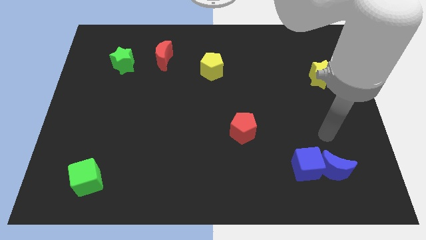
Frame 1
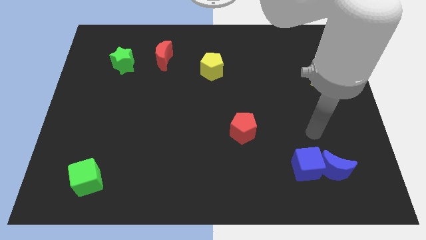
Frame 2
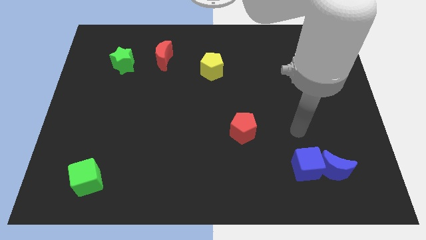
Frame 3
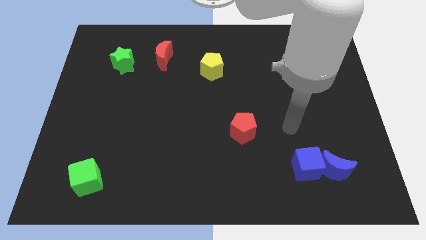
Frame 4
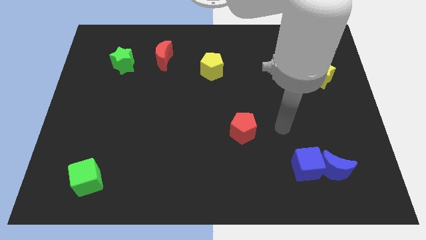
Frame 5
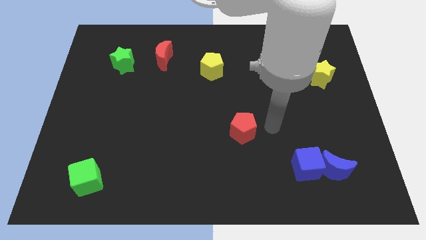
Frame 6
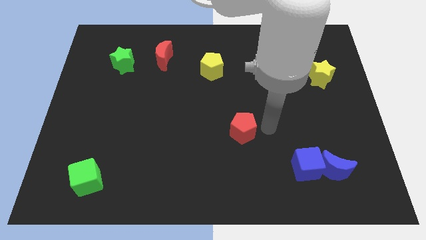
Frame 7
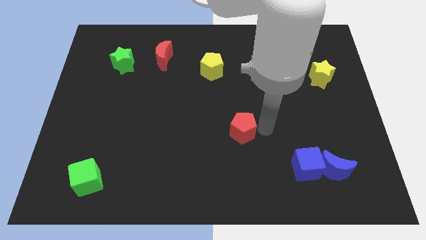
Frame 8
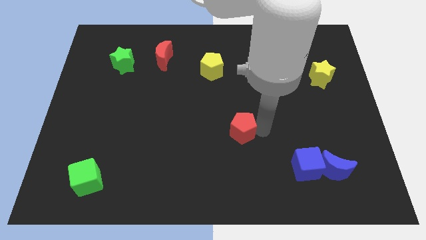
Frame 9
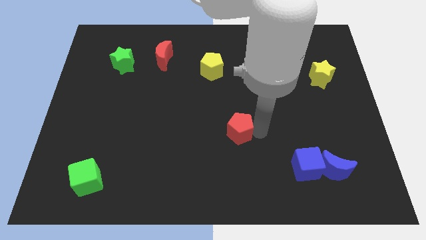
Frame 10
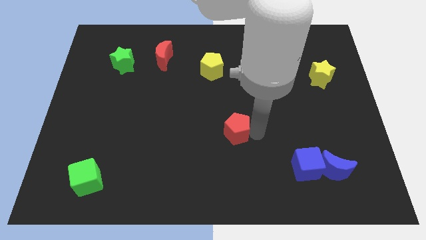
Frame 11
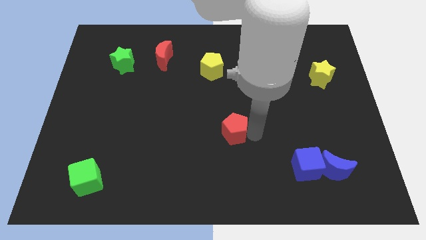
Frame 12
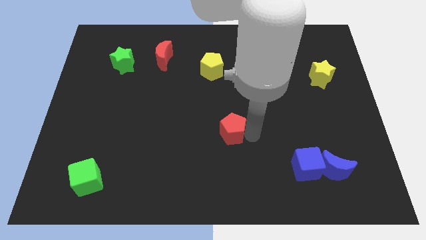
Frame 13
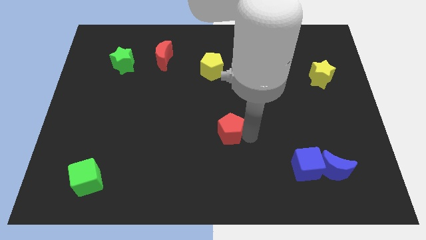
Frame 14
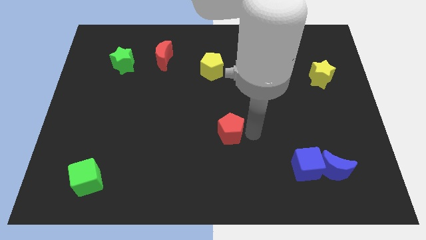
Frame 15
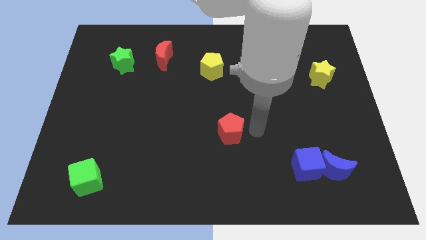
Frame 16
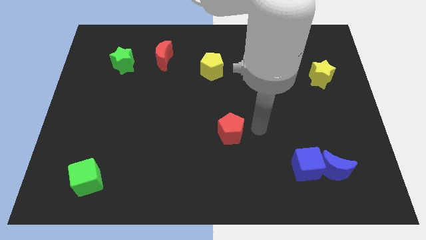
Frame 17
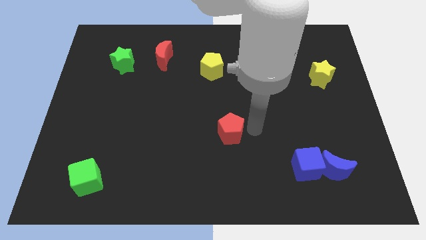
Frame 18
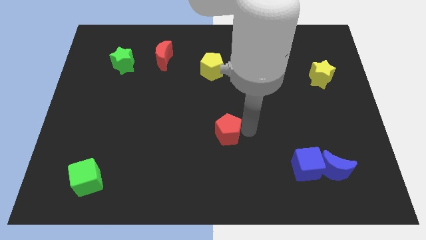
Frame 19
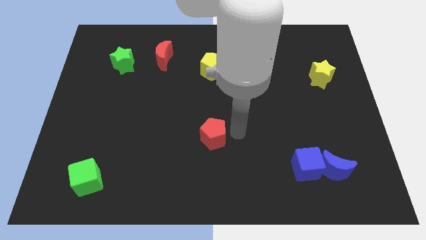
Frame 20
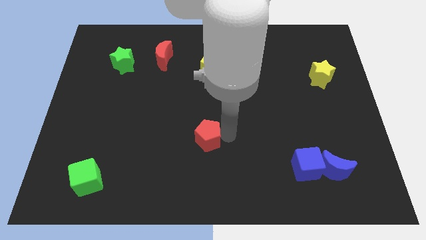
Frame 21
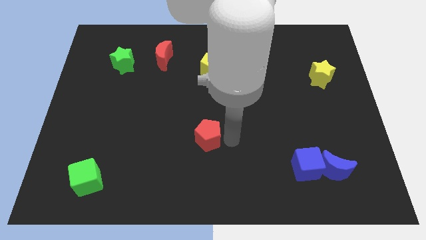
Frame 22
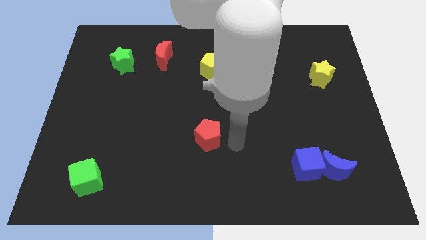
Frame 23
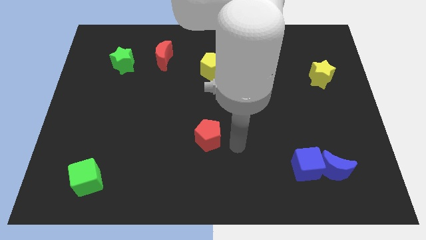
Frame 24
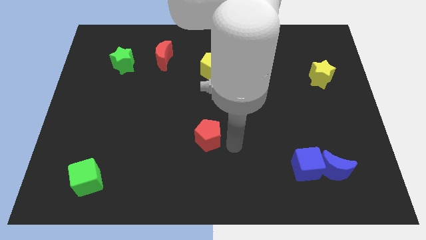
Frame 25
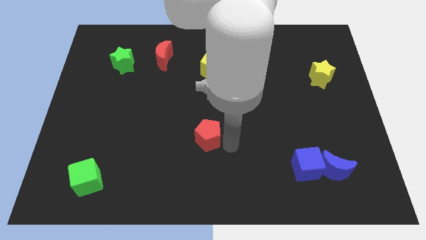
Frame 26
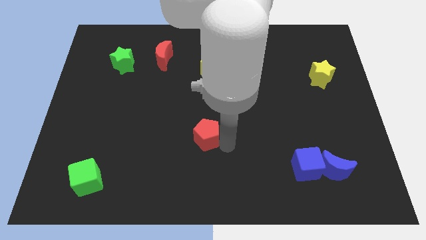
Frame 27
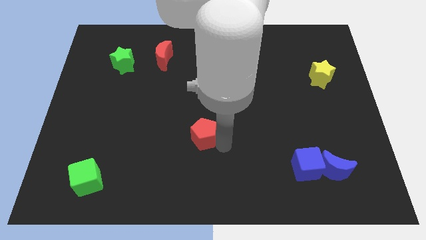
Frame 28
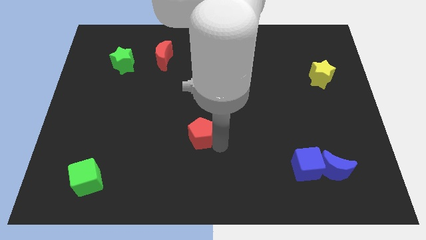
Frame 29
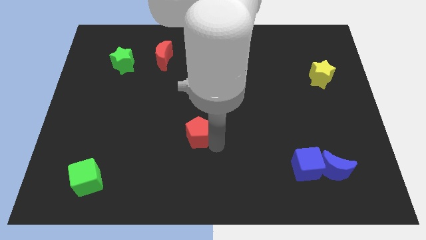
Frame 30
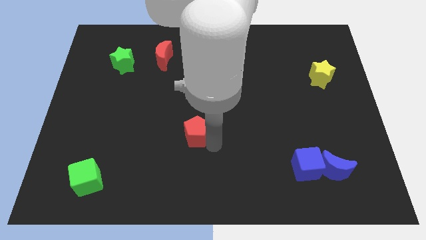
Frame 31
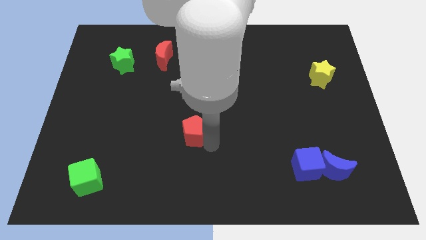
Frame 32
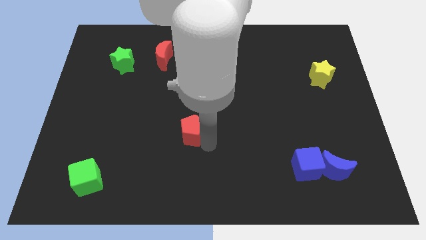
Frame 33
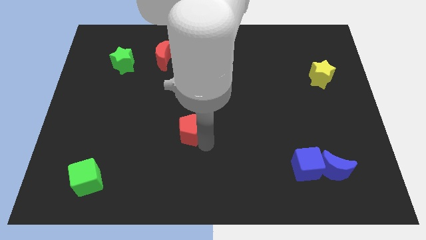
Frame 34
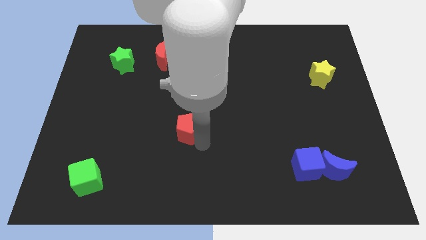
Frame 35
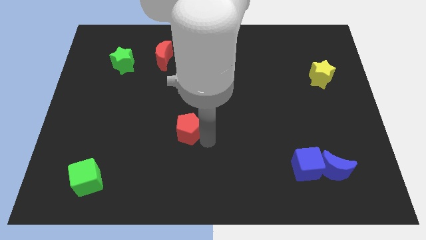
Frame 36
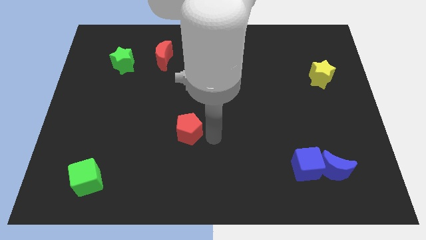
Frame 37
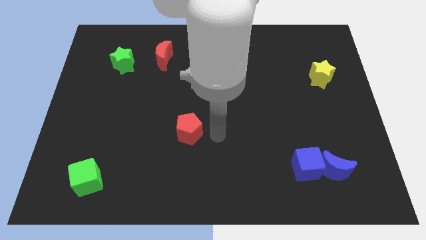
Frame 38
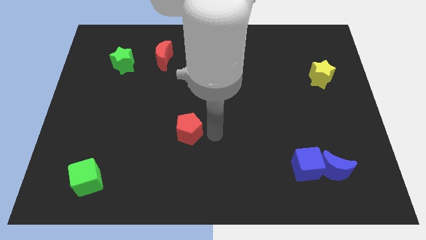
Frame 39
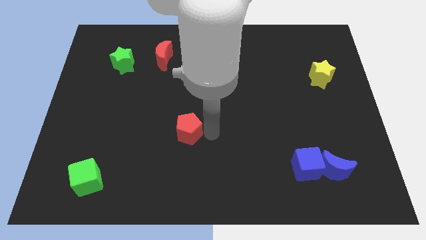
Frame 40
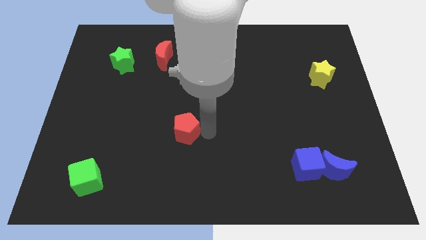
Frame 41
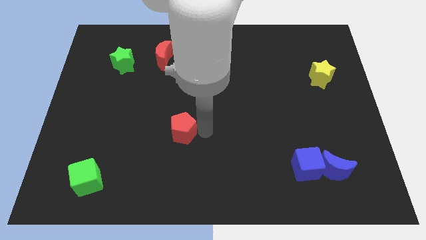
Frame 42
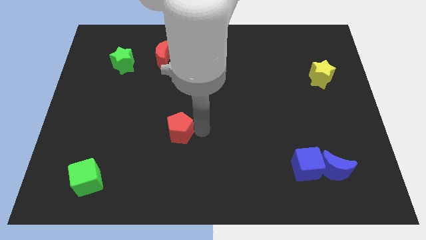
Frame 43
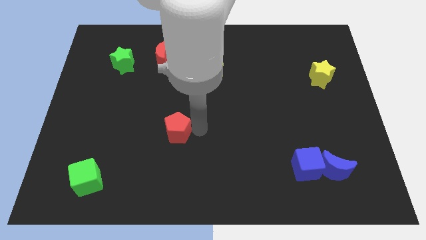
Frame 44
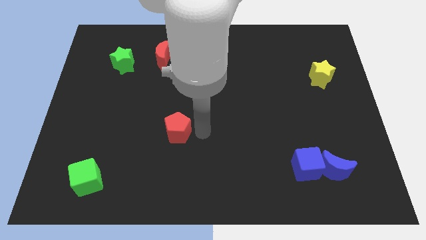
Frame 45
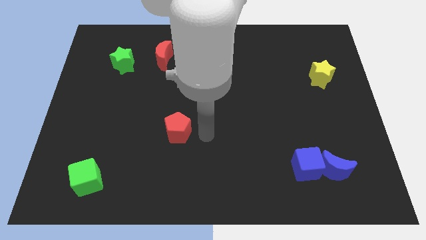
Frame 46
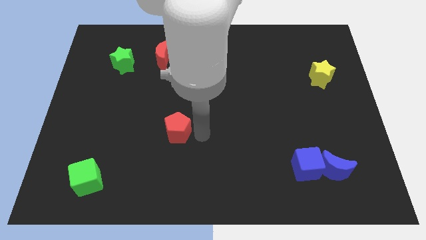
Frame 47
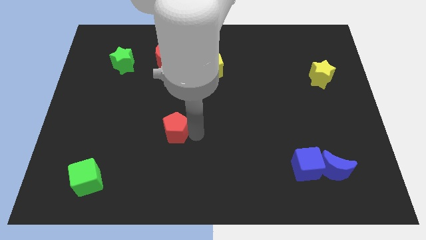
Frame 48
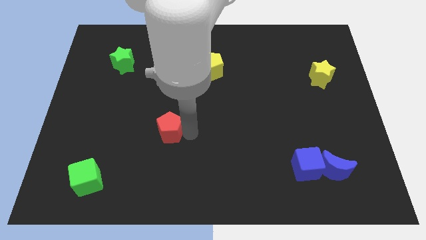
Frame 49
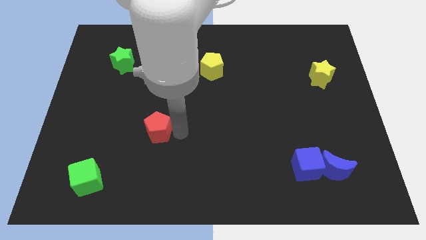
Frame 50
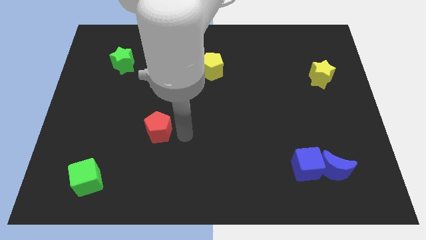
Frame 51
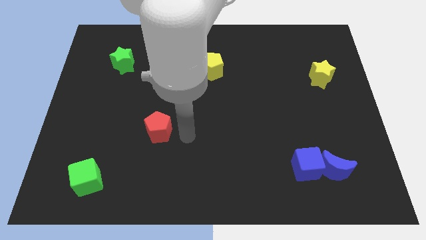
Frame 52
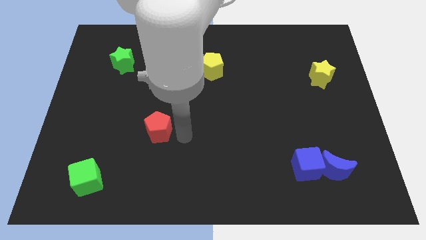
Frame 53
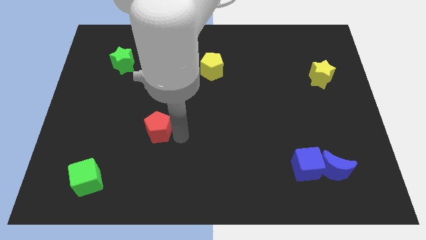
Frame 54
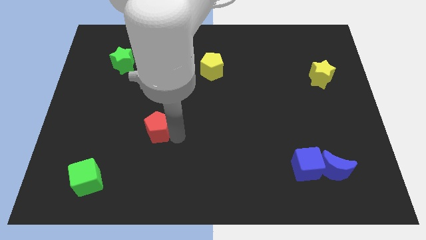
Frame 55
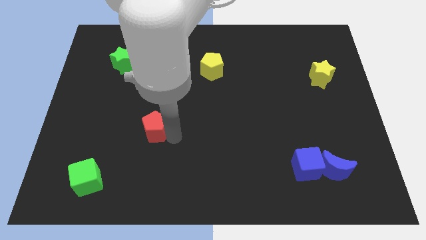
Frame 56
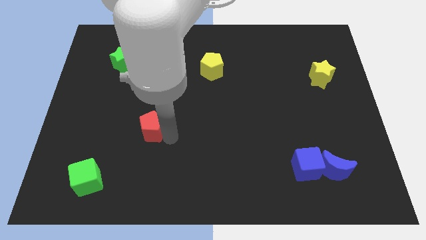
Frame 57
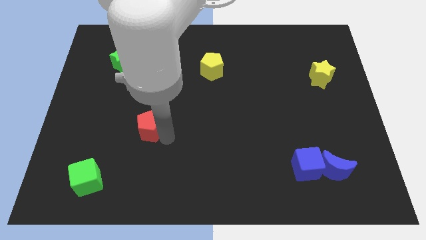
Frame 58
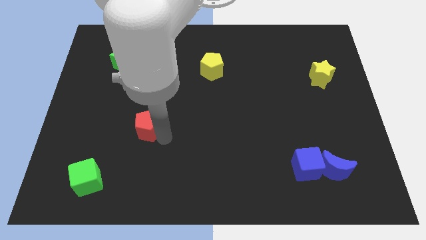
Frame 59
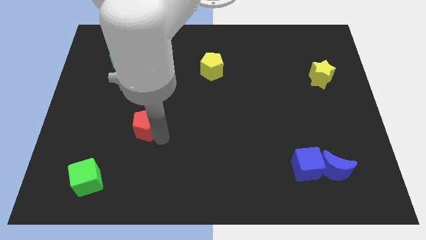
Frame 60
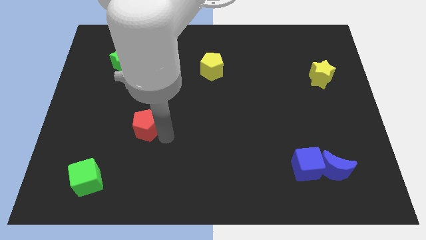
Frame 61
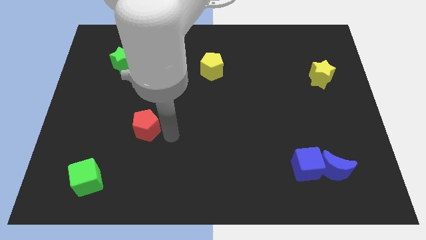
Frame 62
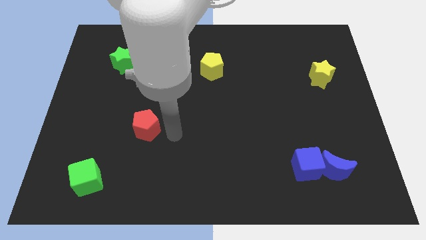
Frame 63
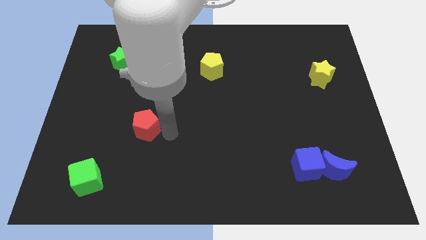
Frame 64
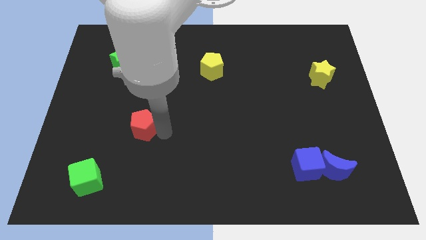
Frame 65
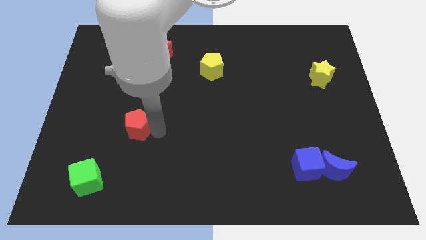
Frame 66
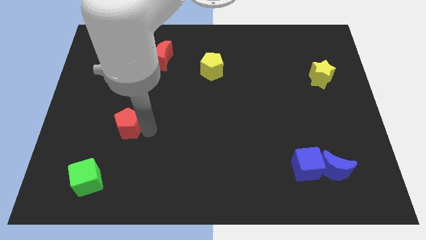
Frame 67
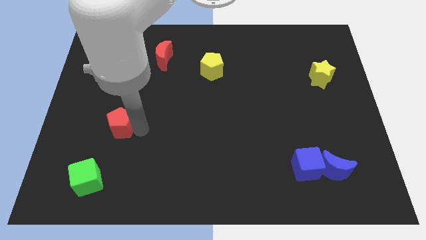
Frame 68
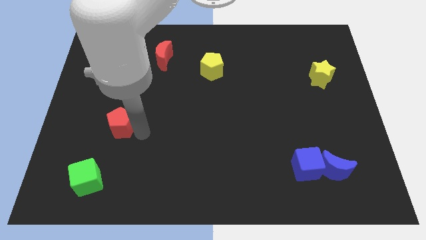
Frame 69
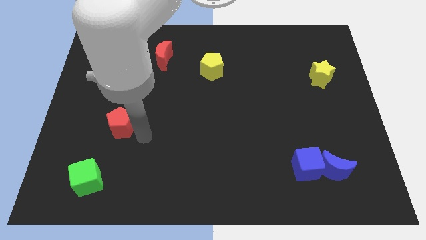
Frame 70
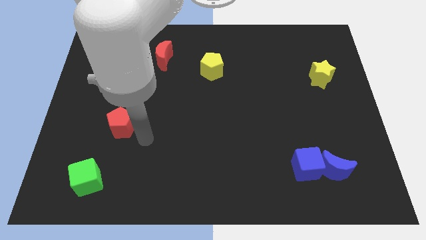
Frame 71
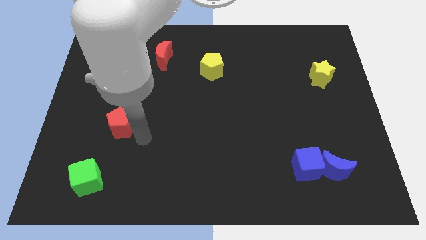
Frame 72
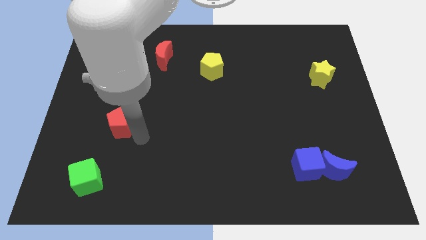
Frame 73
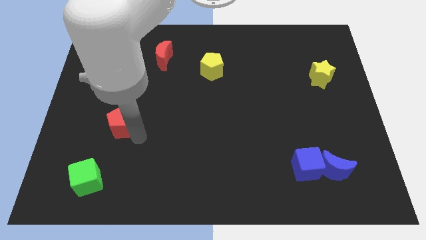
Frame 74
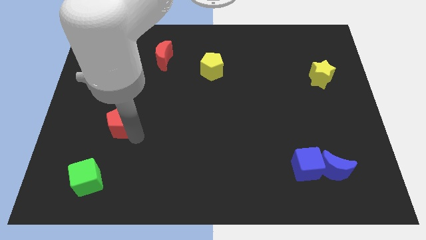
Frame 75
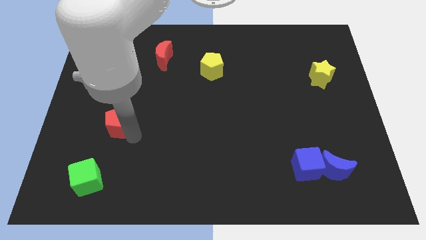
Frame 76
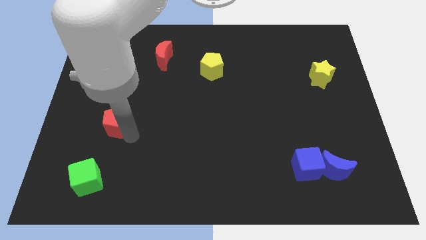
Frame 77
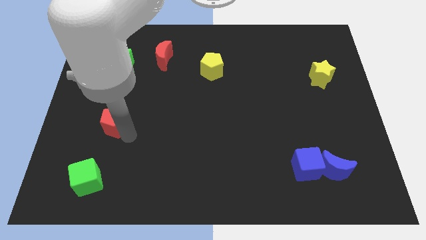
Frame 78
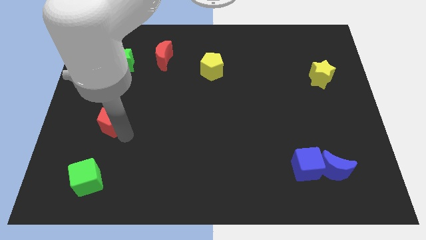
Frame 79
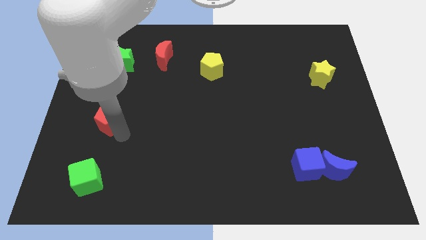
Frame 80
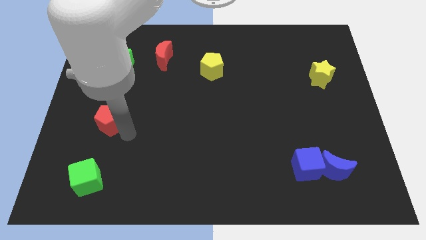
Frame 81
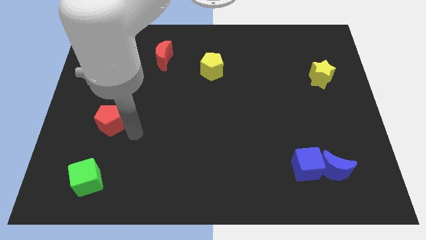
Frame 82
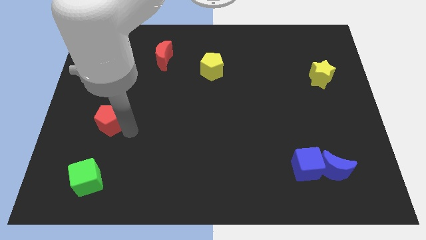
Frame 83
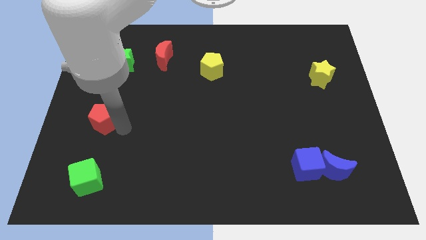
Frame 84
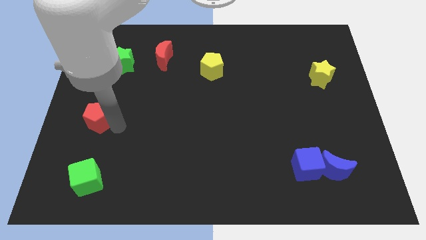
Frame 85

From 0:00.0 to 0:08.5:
move the red pentagon to the center left
